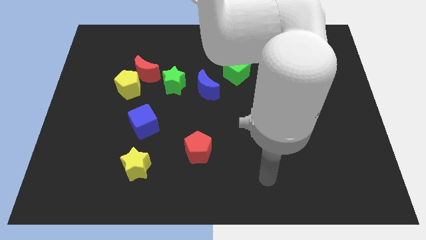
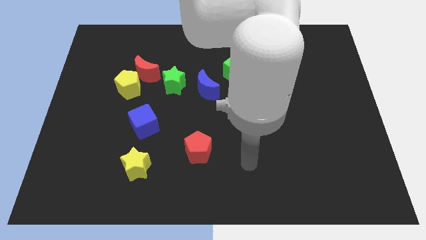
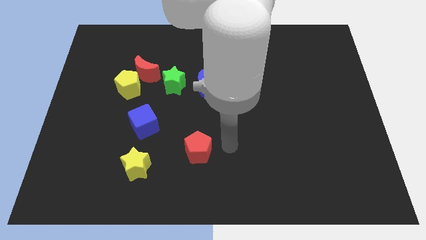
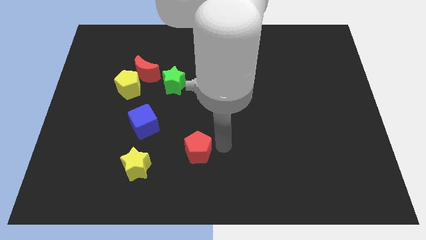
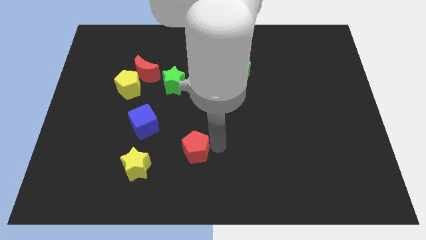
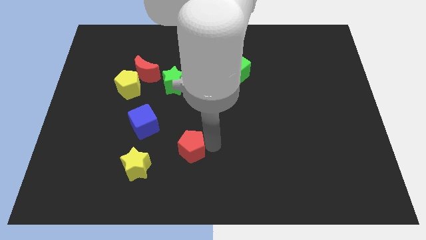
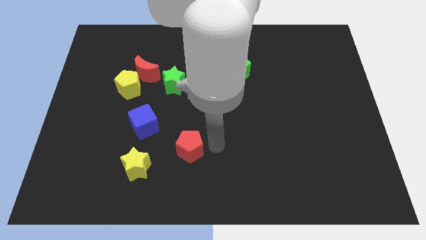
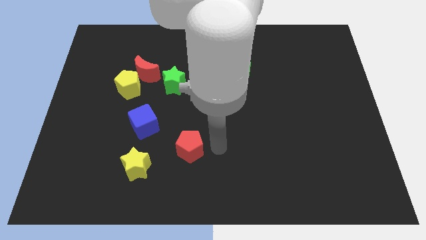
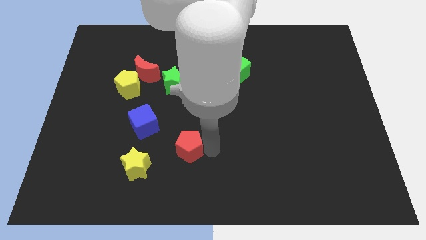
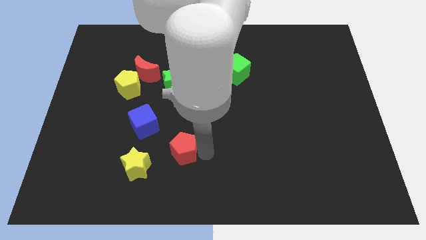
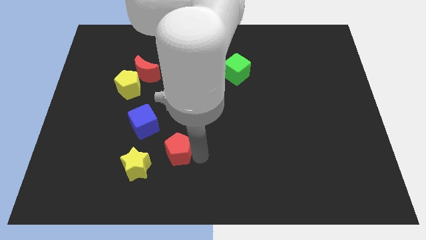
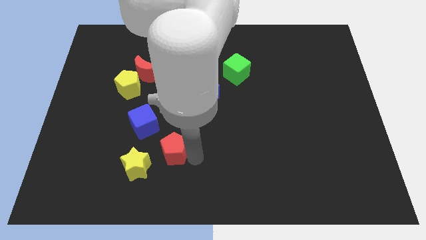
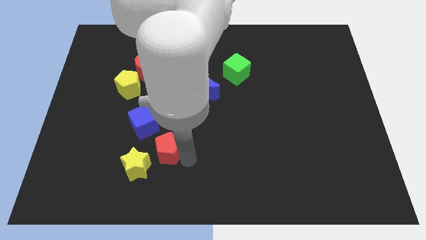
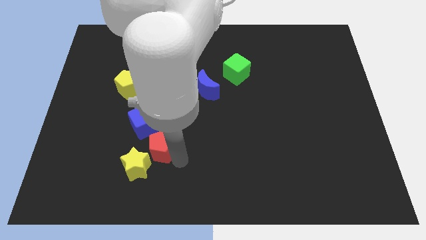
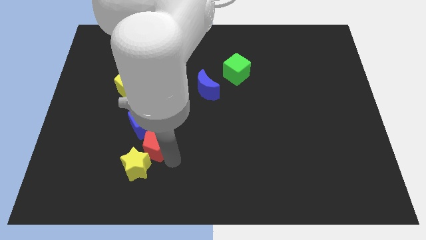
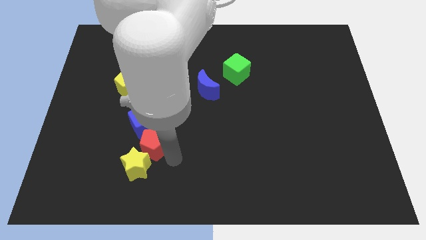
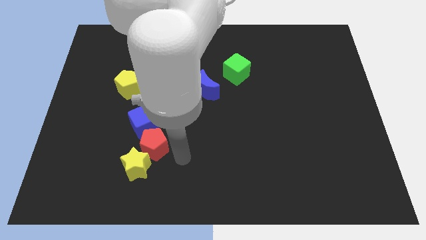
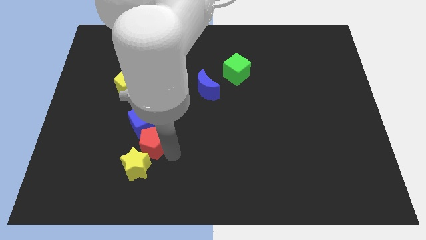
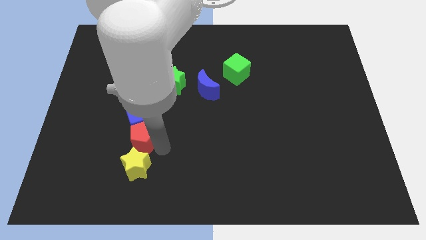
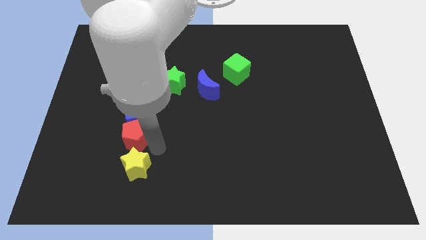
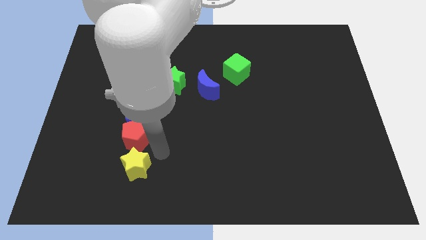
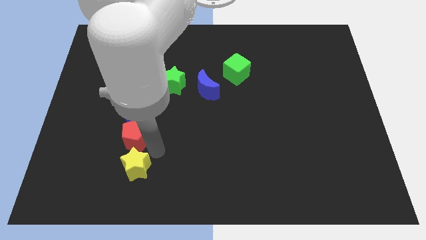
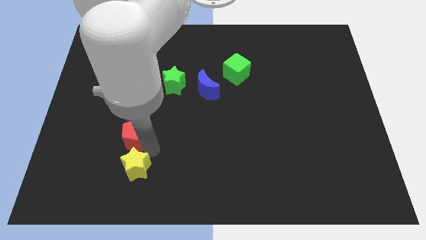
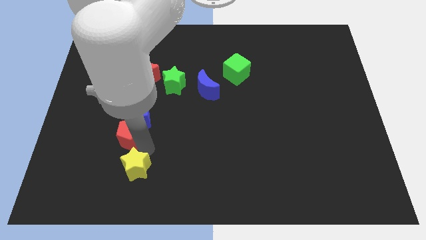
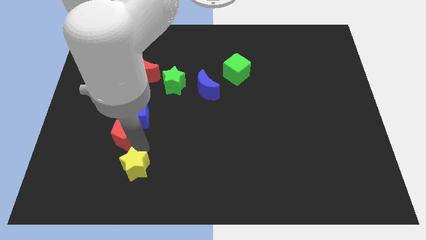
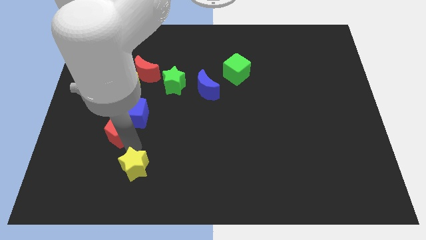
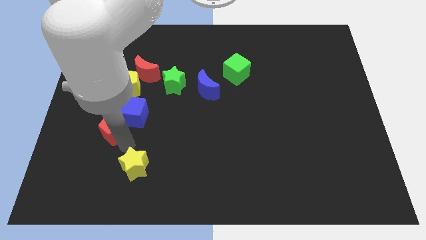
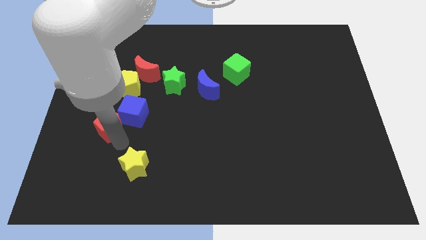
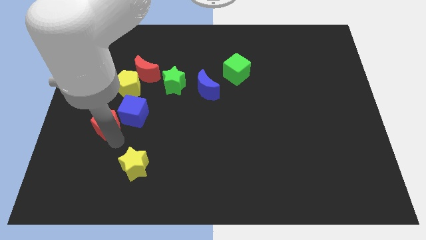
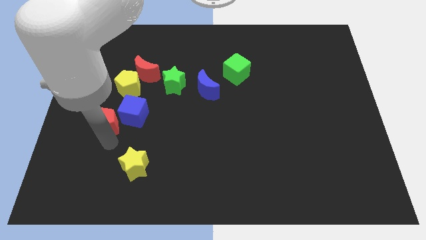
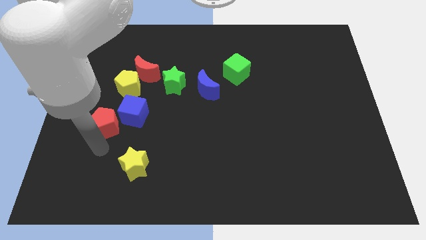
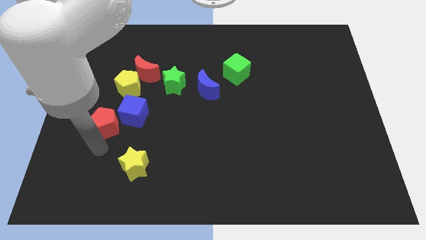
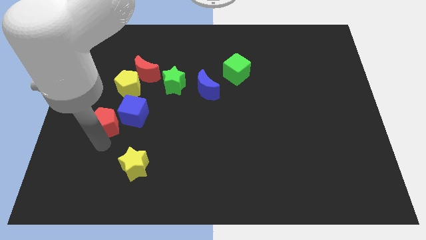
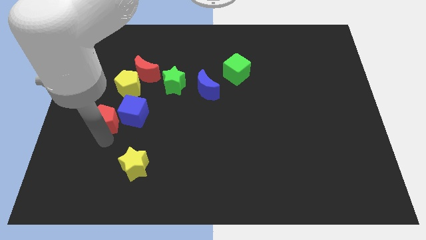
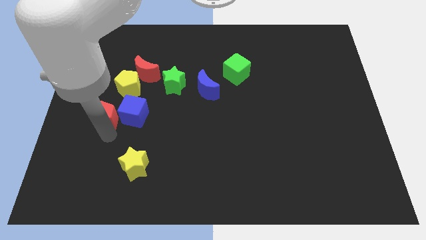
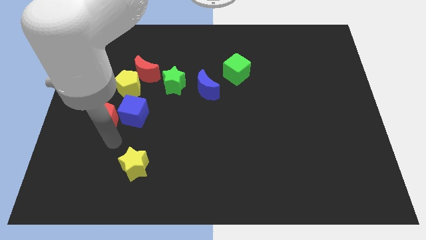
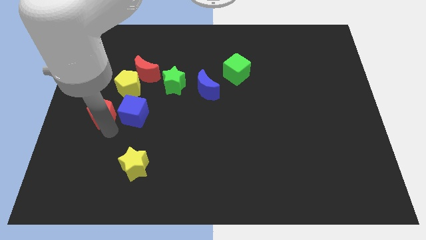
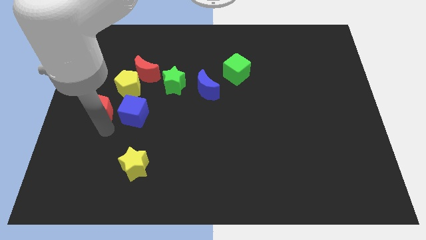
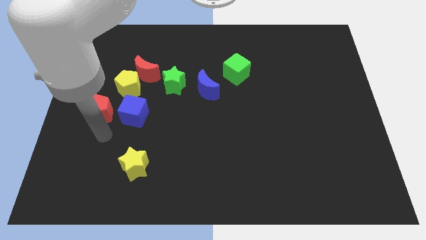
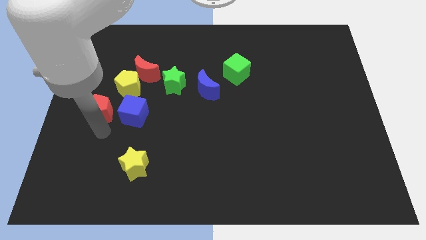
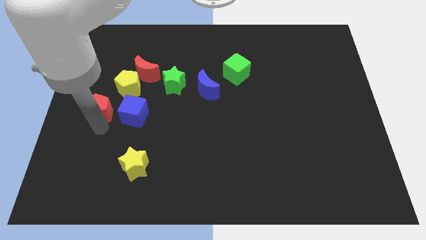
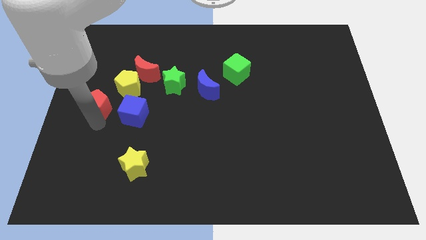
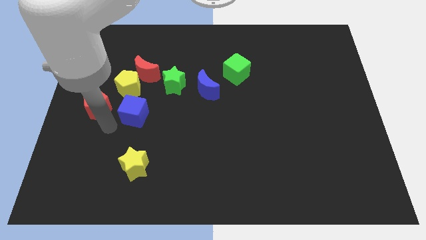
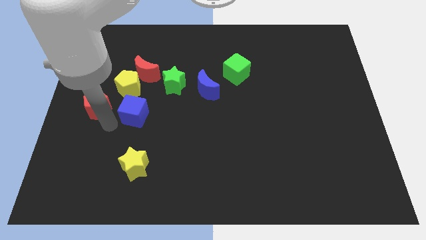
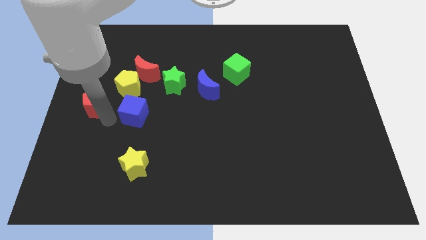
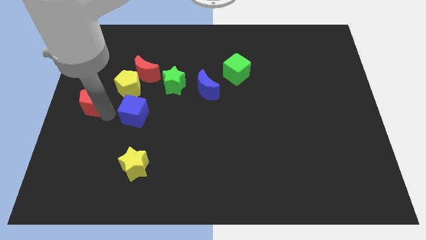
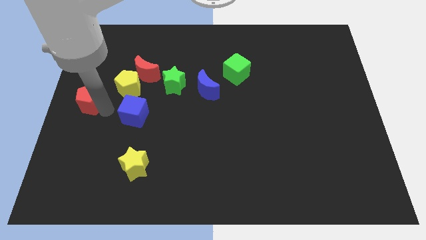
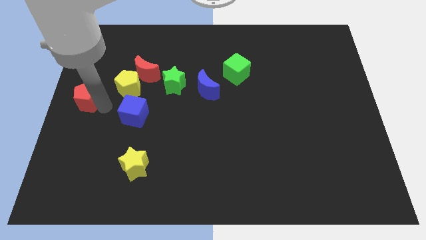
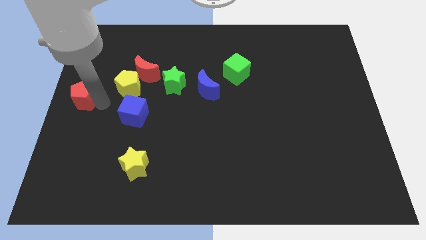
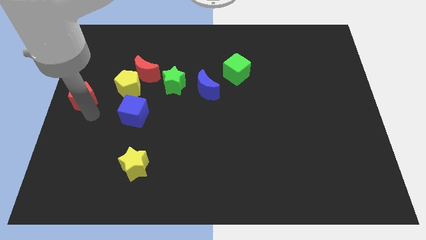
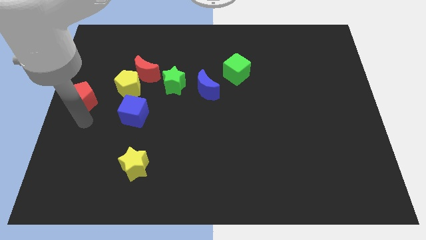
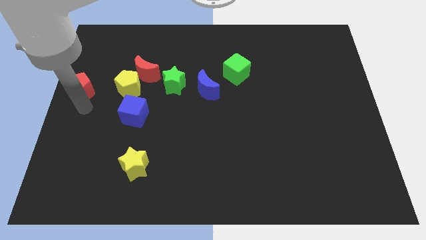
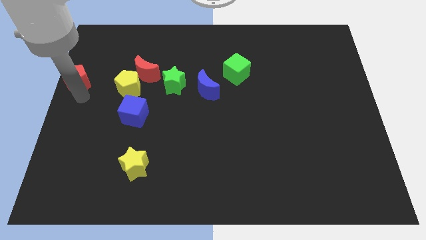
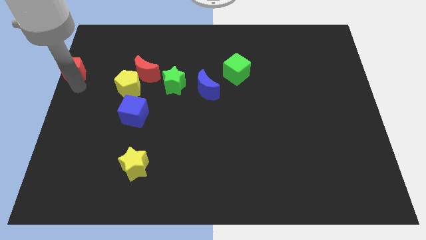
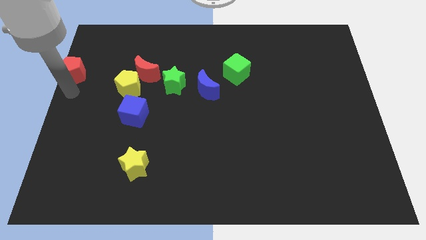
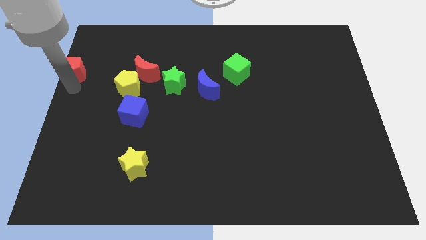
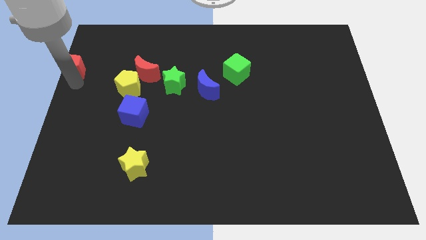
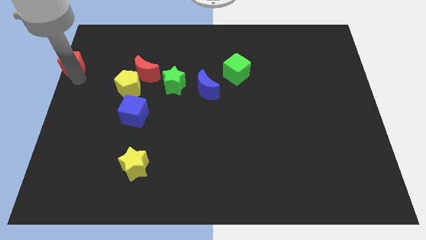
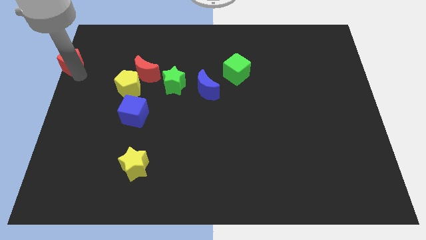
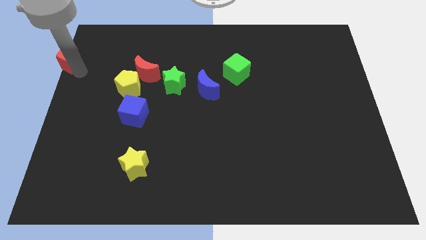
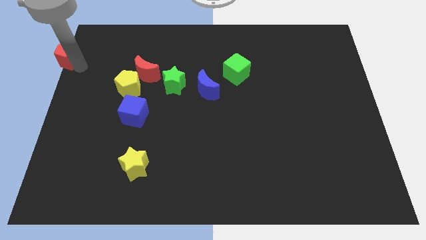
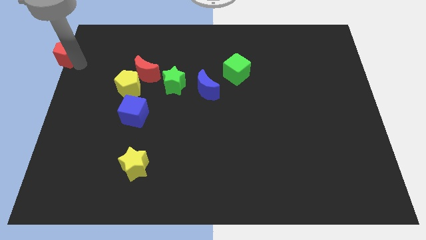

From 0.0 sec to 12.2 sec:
put the red pentagon to the top left corner
